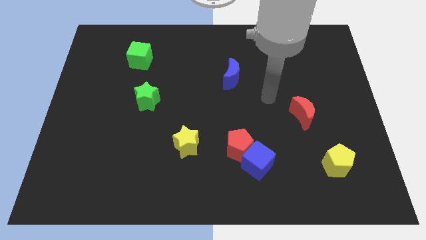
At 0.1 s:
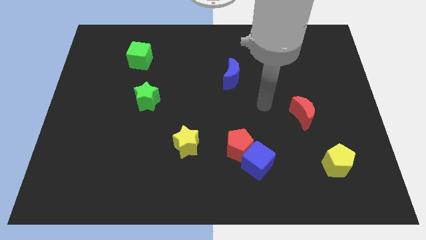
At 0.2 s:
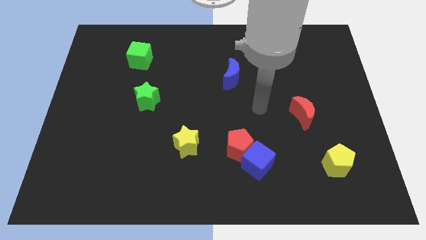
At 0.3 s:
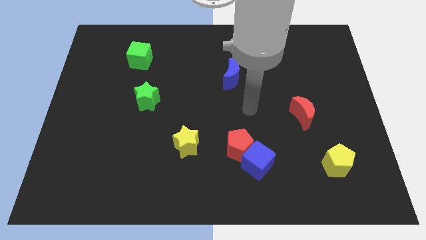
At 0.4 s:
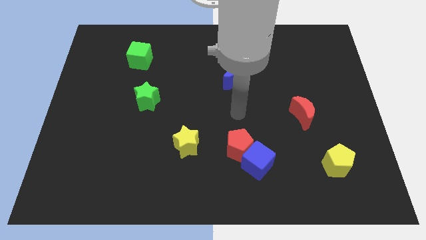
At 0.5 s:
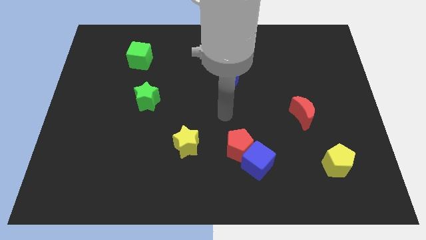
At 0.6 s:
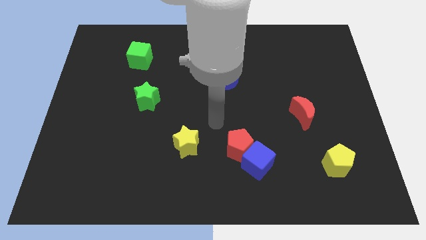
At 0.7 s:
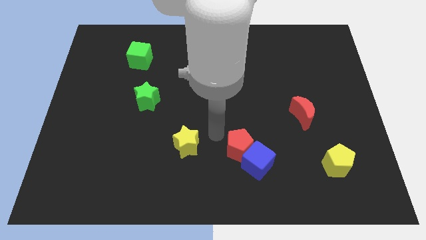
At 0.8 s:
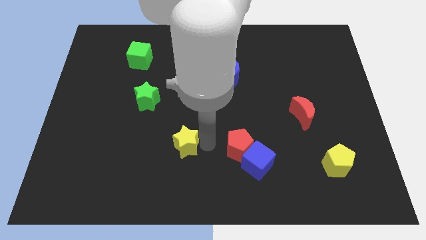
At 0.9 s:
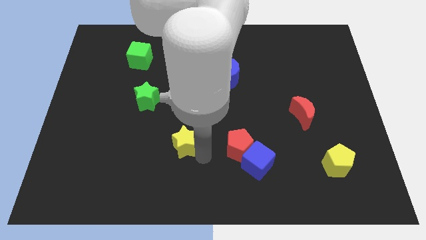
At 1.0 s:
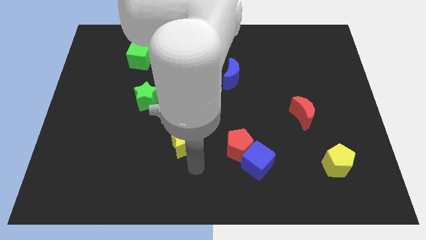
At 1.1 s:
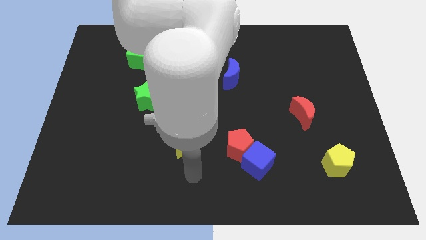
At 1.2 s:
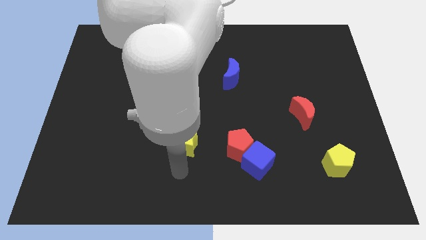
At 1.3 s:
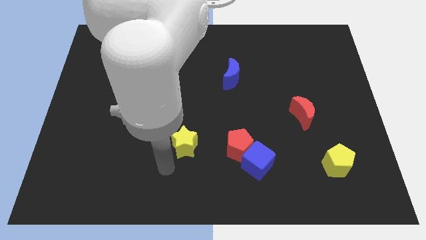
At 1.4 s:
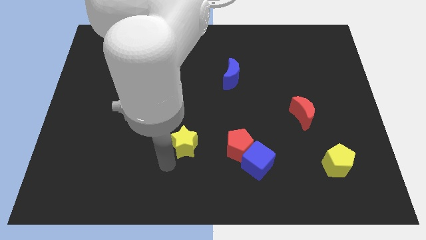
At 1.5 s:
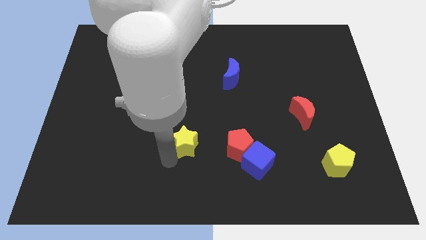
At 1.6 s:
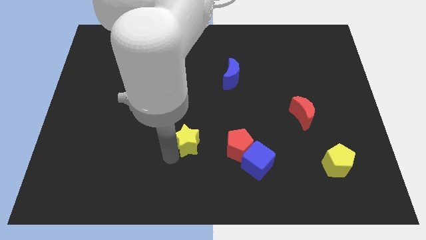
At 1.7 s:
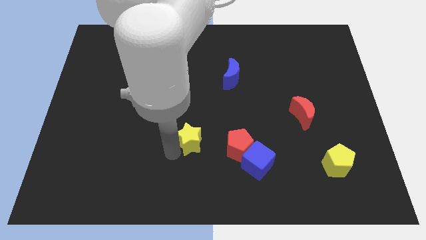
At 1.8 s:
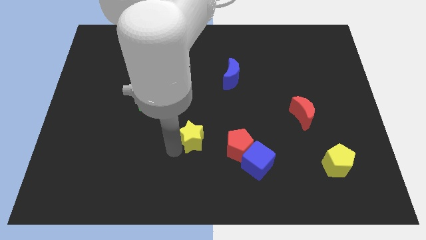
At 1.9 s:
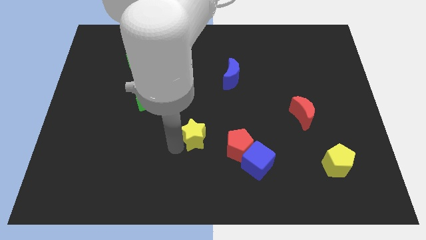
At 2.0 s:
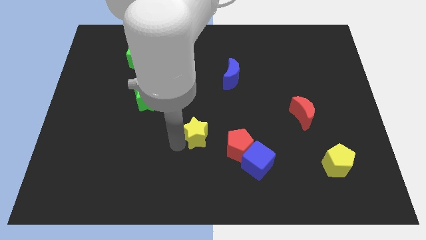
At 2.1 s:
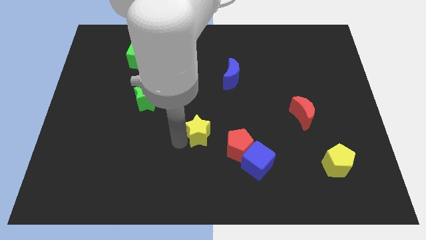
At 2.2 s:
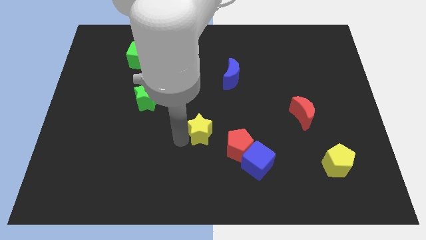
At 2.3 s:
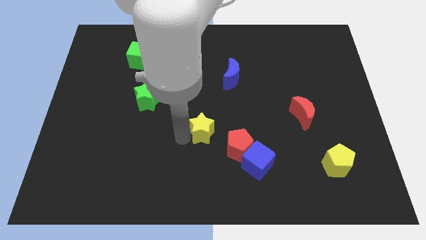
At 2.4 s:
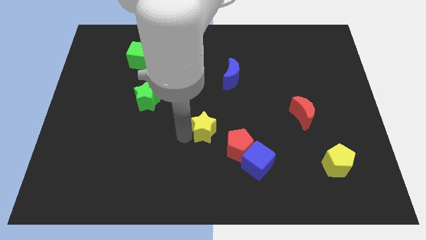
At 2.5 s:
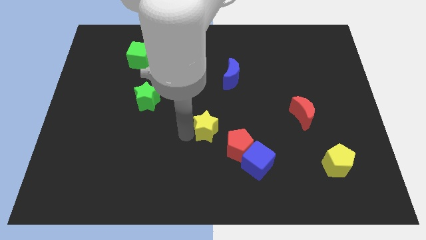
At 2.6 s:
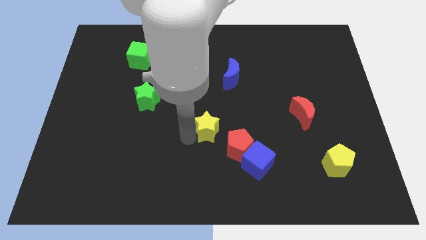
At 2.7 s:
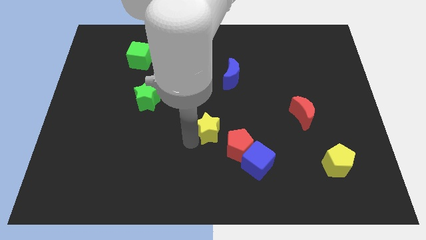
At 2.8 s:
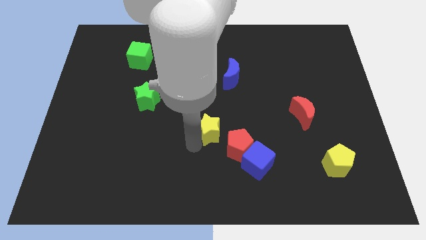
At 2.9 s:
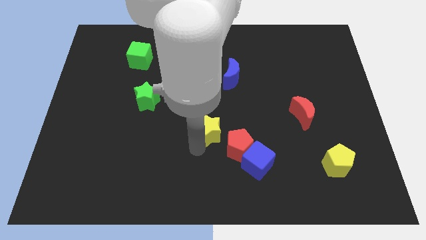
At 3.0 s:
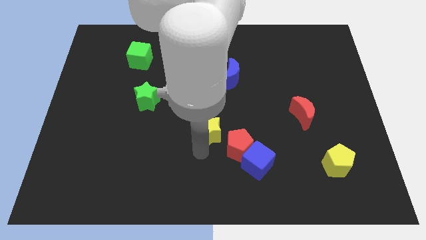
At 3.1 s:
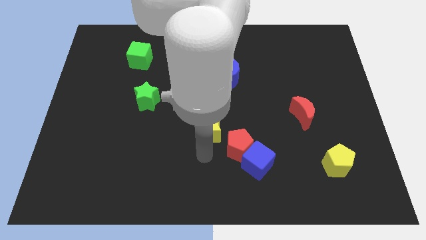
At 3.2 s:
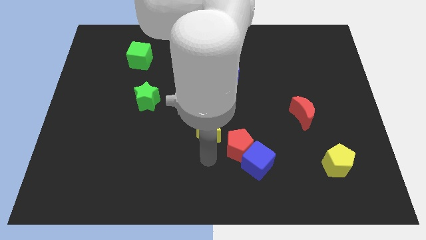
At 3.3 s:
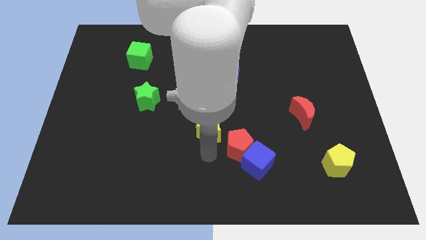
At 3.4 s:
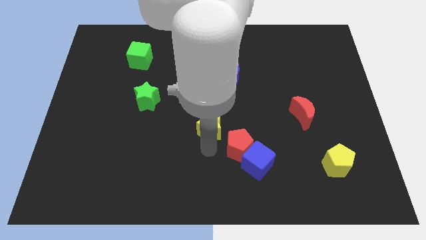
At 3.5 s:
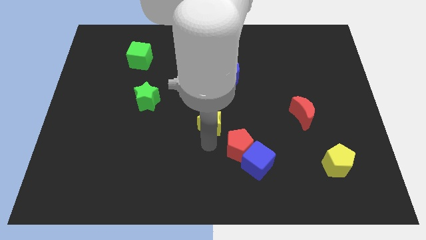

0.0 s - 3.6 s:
slightly move the yellow star upwards and then to the right

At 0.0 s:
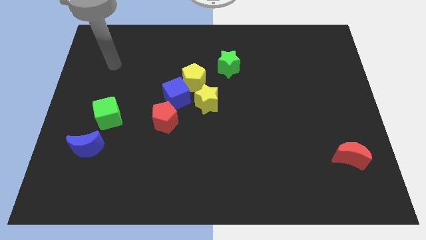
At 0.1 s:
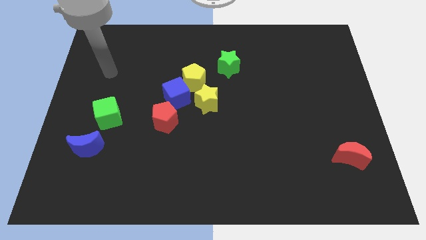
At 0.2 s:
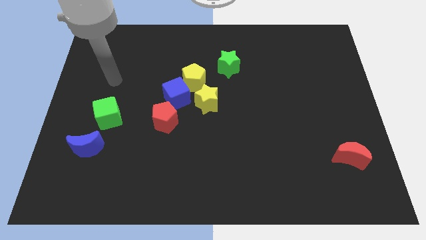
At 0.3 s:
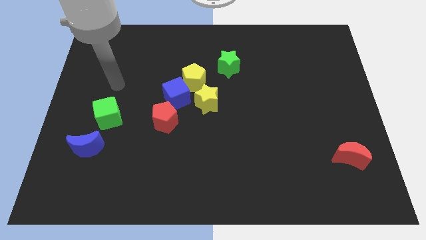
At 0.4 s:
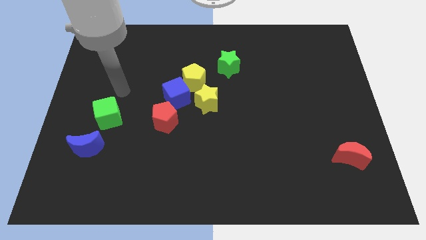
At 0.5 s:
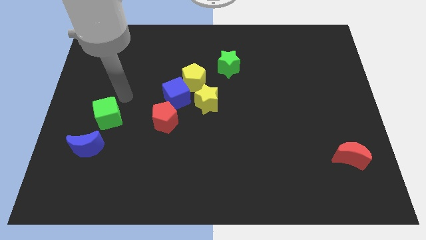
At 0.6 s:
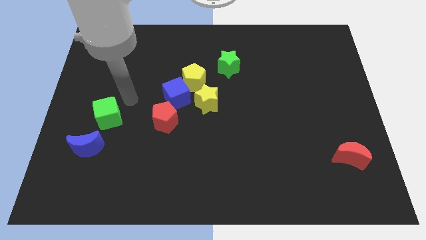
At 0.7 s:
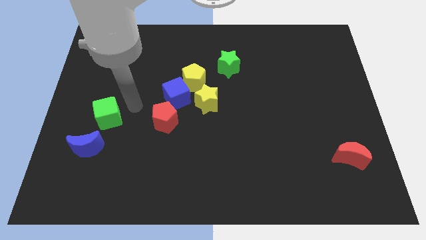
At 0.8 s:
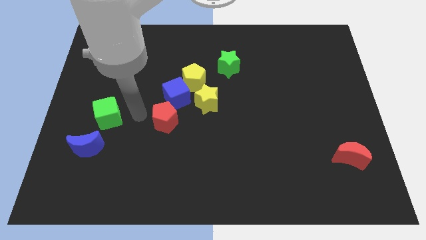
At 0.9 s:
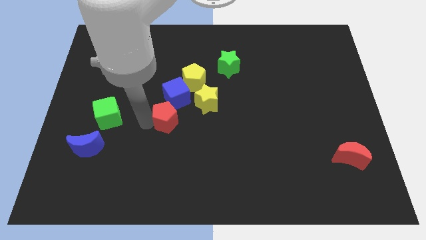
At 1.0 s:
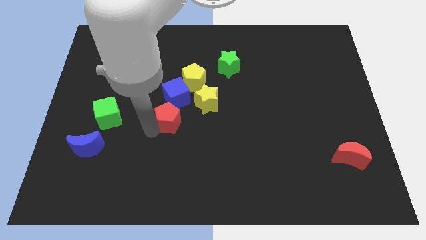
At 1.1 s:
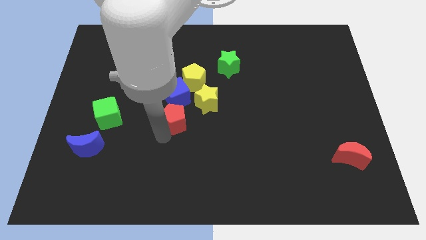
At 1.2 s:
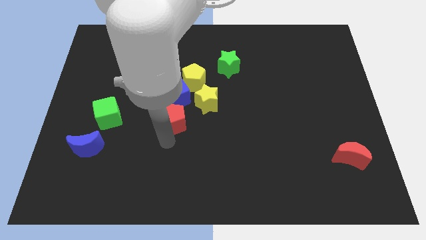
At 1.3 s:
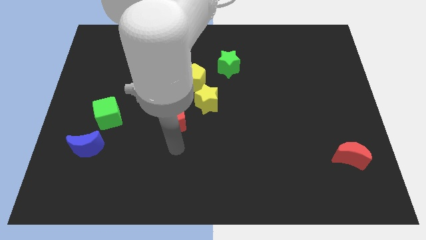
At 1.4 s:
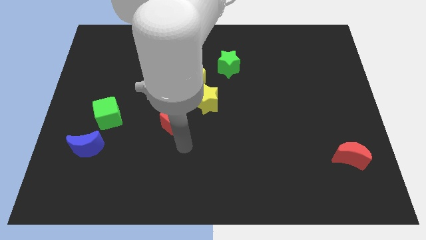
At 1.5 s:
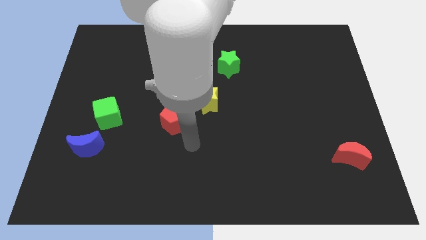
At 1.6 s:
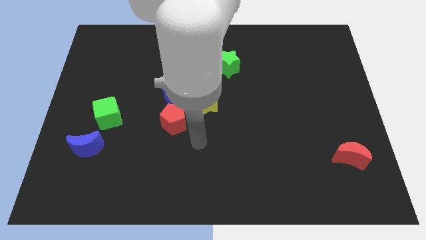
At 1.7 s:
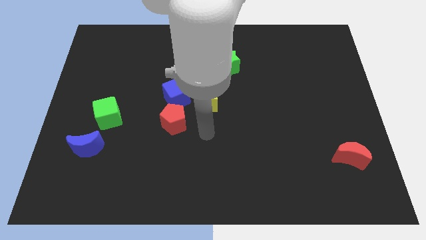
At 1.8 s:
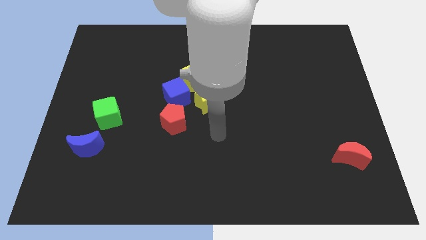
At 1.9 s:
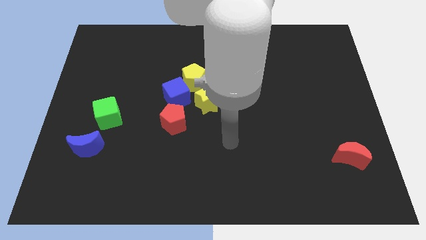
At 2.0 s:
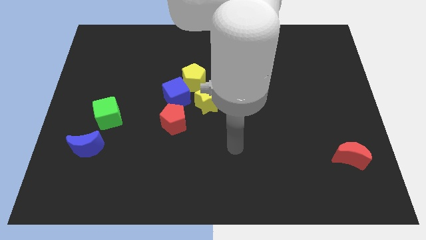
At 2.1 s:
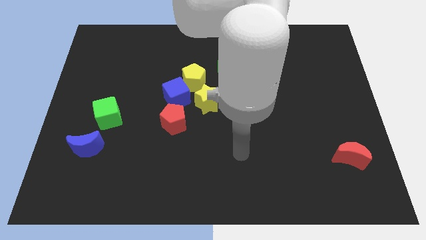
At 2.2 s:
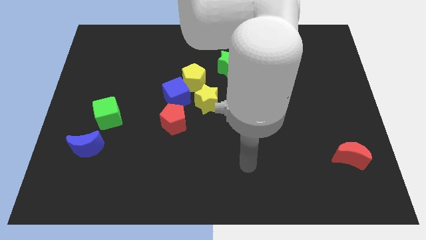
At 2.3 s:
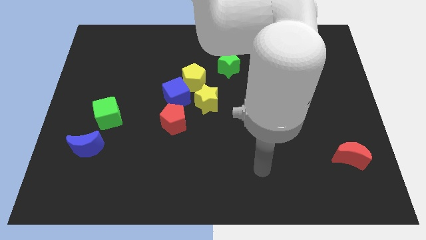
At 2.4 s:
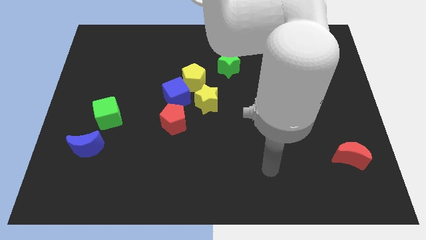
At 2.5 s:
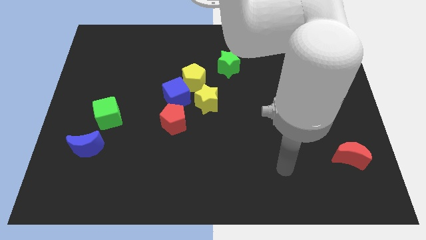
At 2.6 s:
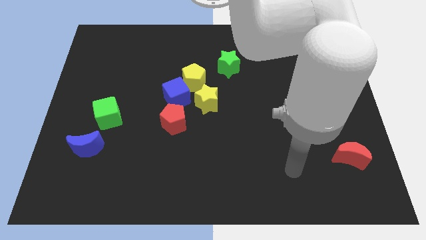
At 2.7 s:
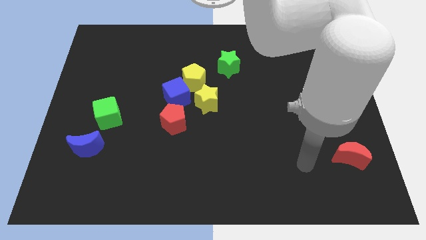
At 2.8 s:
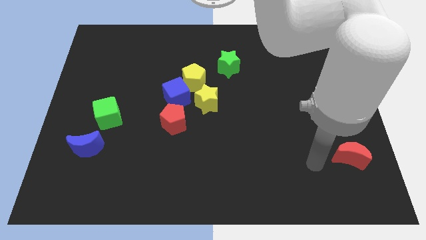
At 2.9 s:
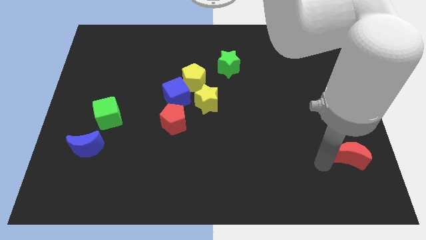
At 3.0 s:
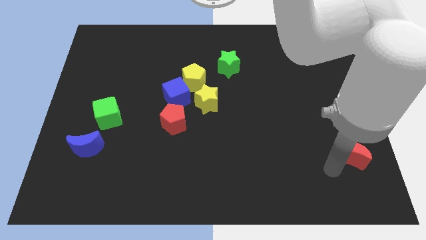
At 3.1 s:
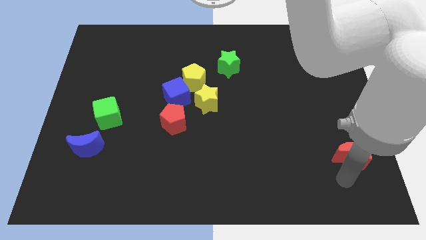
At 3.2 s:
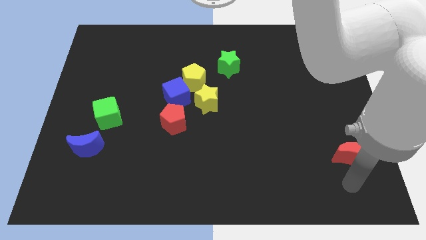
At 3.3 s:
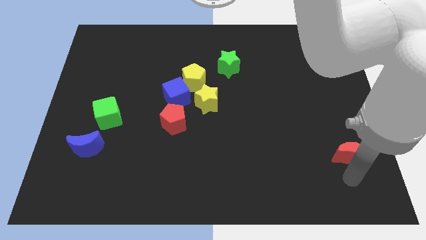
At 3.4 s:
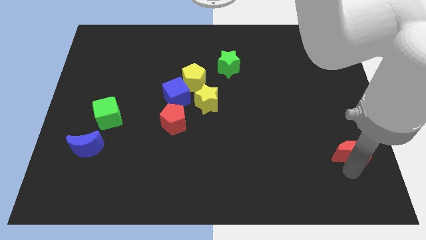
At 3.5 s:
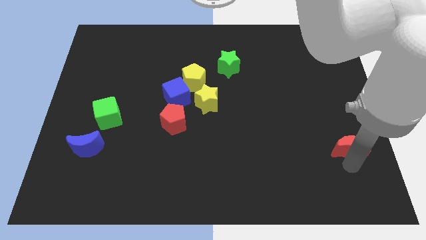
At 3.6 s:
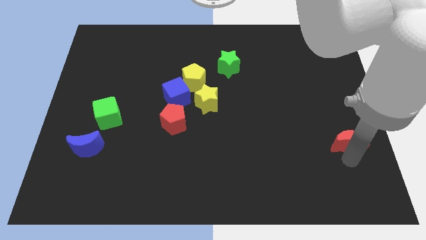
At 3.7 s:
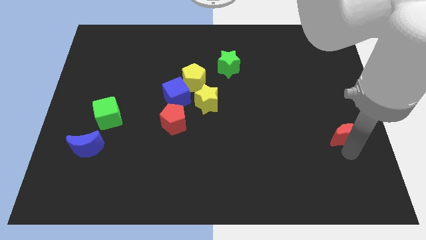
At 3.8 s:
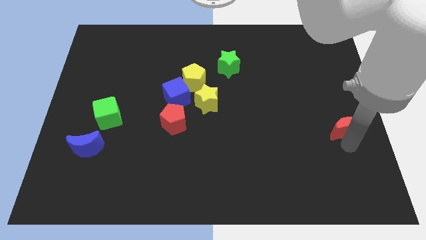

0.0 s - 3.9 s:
push the red moon up a little bit

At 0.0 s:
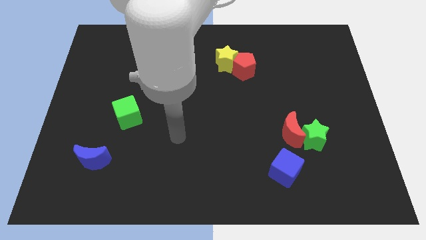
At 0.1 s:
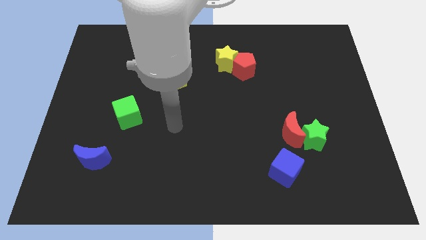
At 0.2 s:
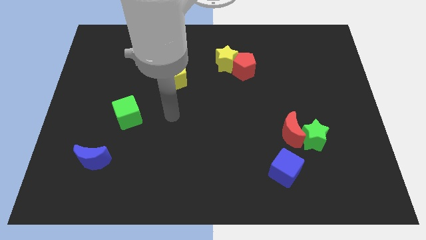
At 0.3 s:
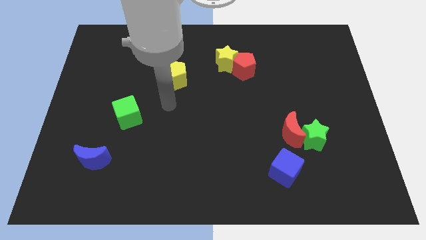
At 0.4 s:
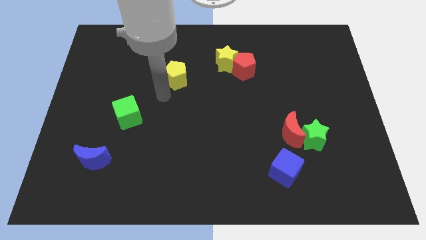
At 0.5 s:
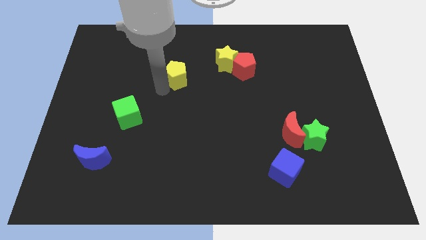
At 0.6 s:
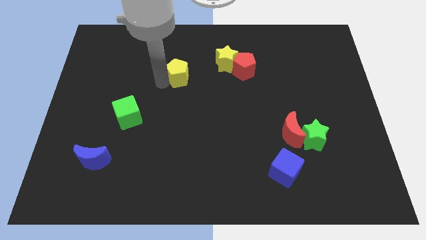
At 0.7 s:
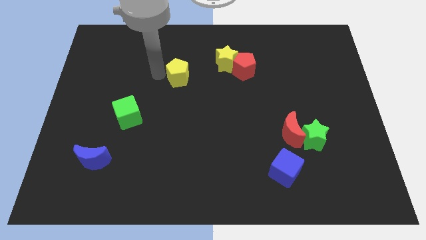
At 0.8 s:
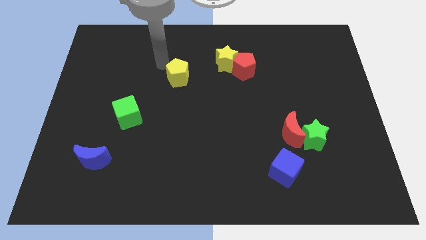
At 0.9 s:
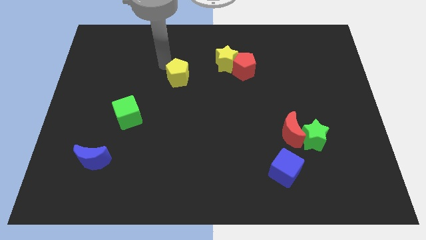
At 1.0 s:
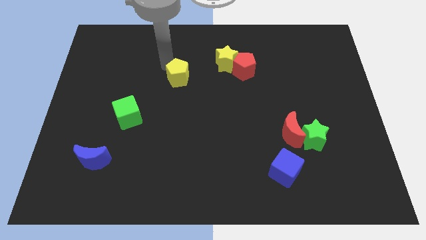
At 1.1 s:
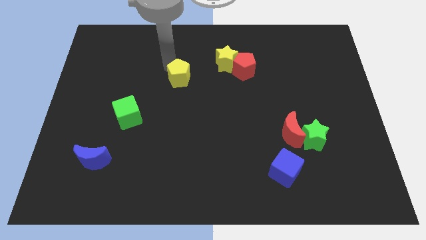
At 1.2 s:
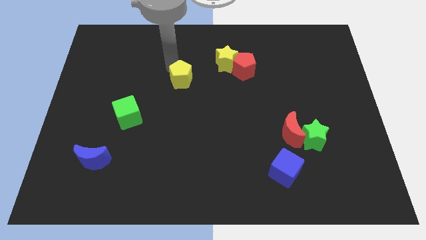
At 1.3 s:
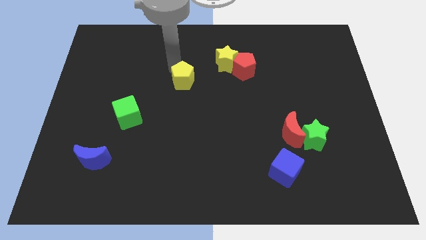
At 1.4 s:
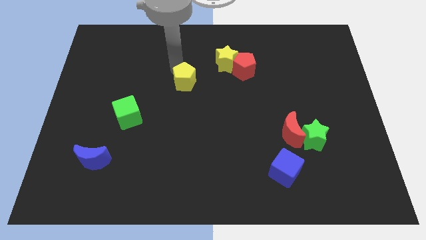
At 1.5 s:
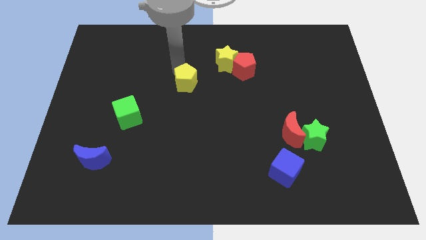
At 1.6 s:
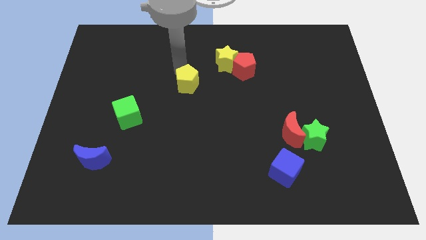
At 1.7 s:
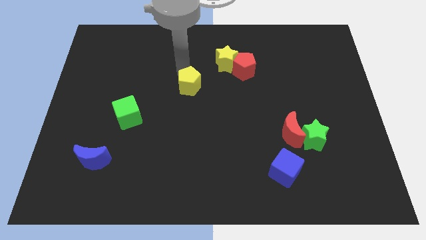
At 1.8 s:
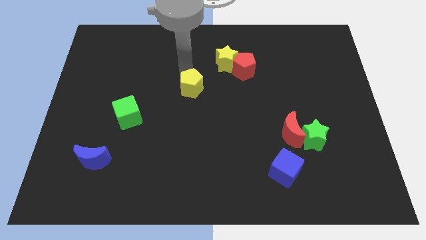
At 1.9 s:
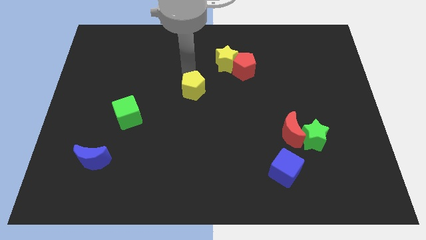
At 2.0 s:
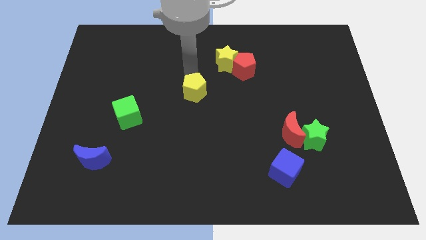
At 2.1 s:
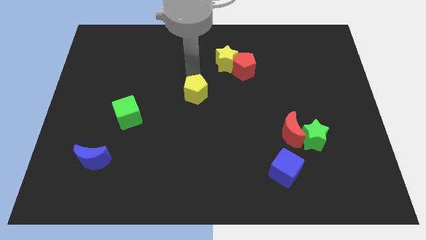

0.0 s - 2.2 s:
slide the yellow pentagon slightly downwards and then right
